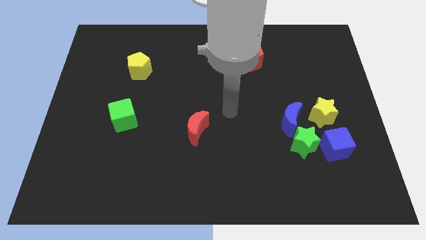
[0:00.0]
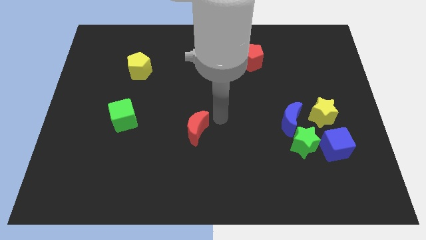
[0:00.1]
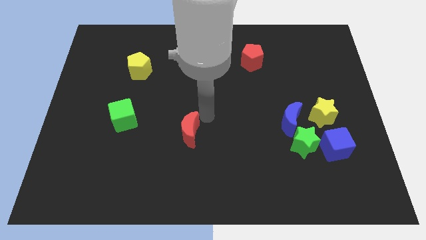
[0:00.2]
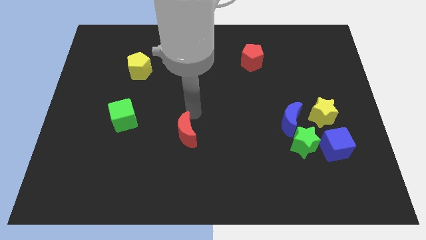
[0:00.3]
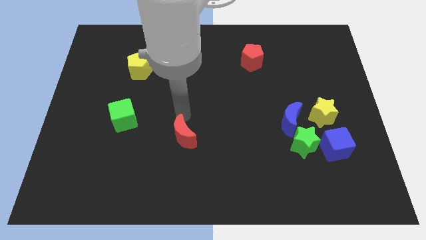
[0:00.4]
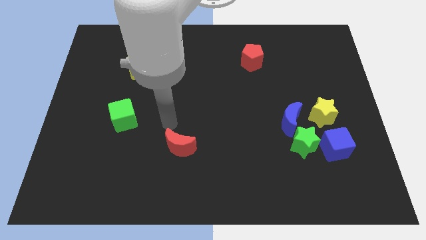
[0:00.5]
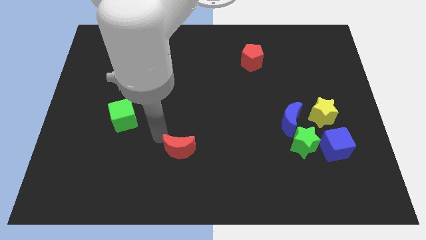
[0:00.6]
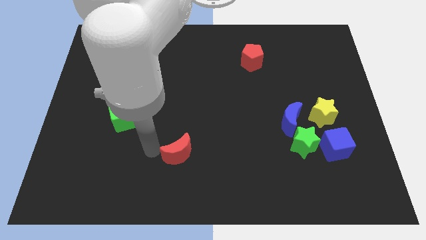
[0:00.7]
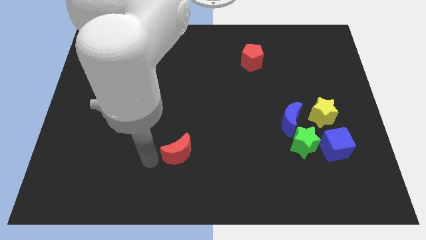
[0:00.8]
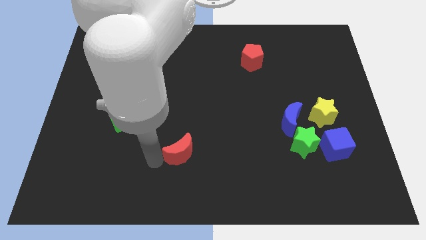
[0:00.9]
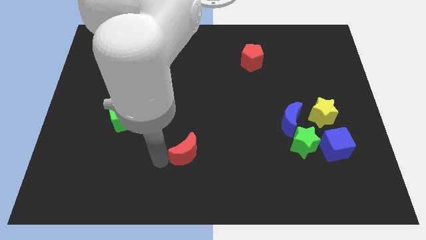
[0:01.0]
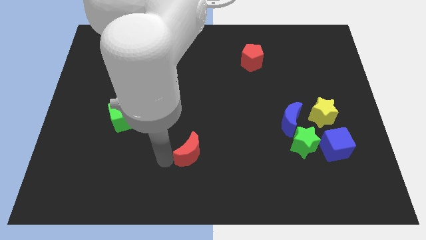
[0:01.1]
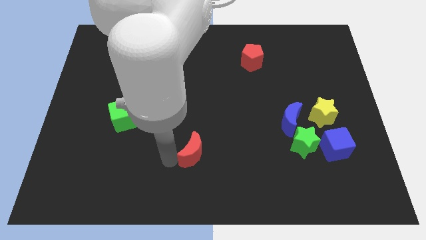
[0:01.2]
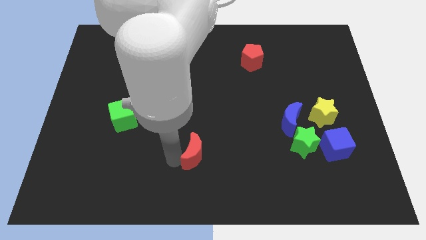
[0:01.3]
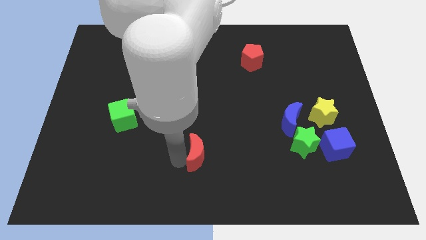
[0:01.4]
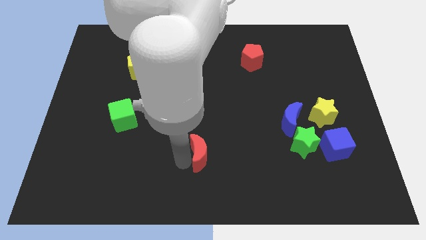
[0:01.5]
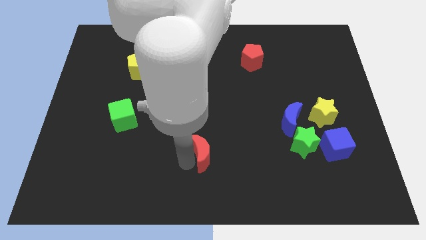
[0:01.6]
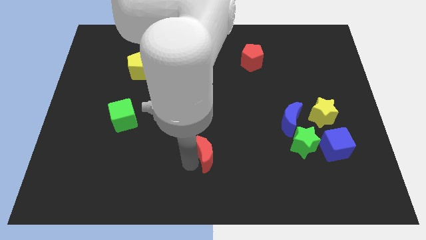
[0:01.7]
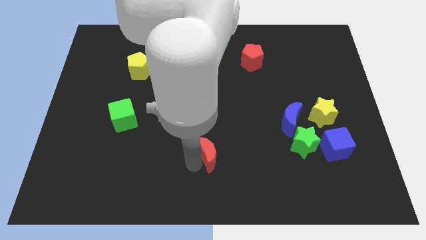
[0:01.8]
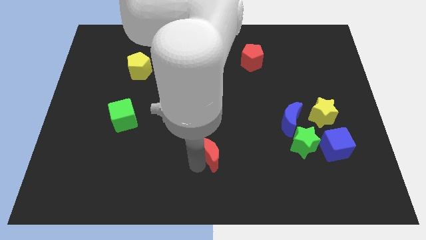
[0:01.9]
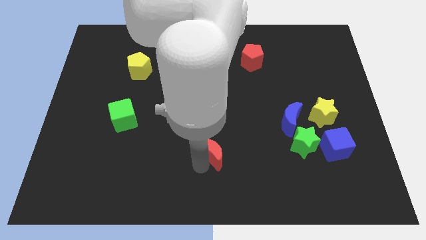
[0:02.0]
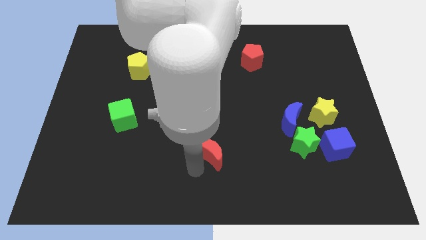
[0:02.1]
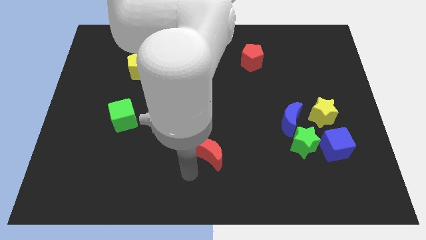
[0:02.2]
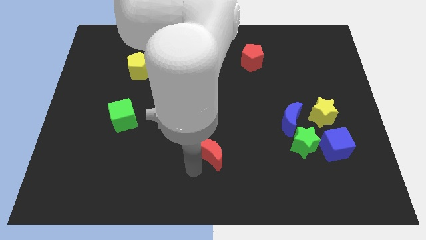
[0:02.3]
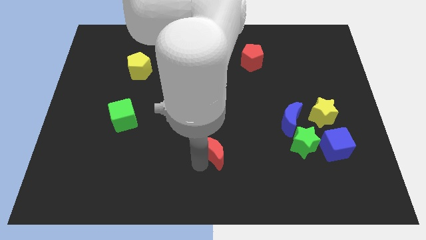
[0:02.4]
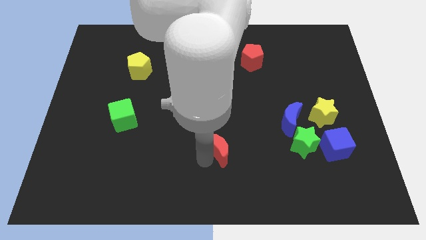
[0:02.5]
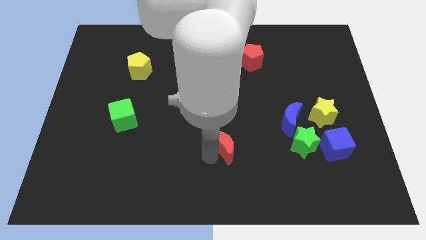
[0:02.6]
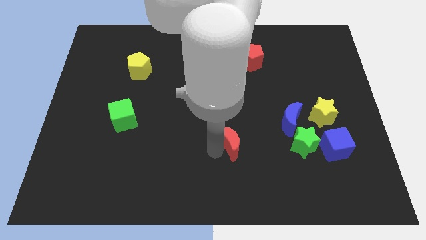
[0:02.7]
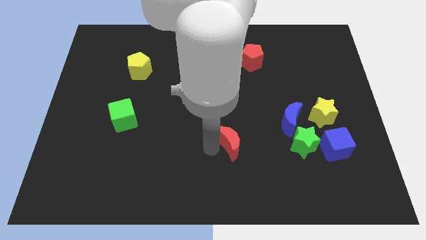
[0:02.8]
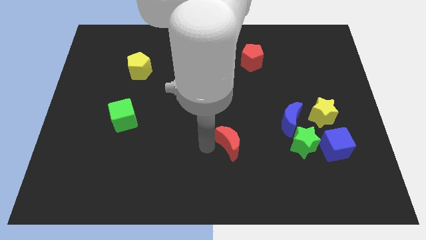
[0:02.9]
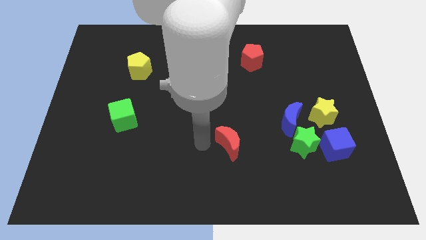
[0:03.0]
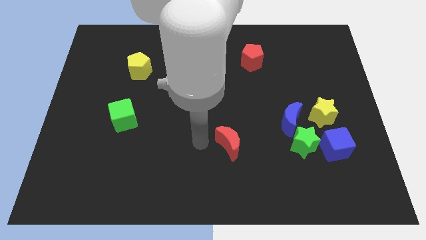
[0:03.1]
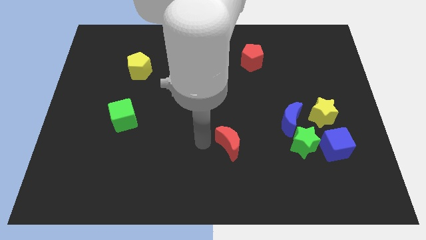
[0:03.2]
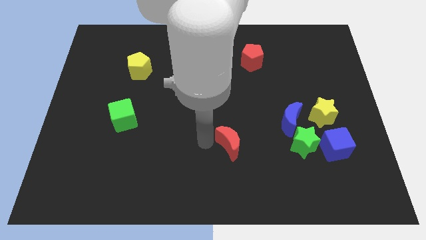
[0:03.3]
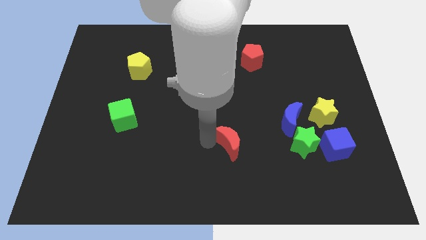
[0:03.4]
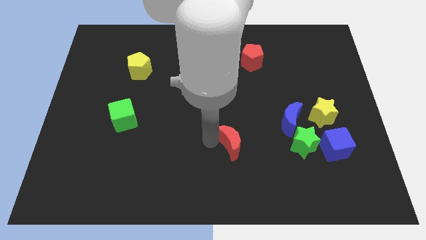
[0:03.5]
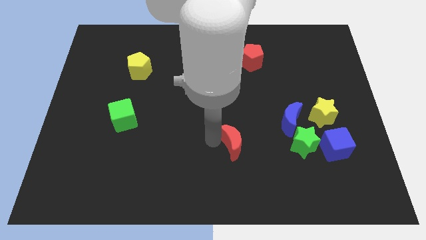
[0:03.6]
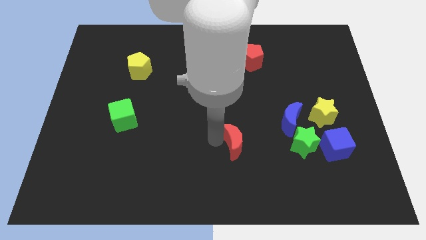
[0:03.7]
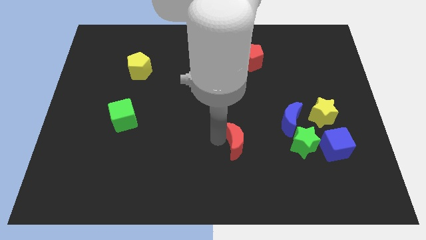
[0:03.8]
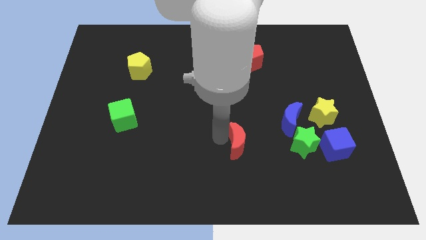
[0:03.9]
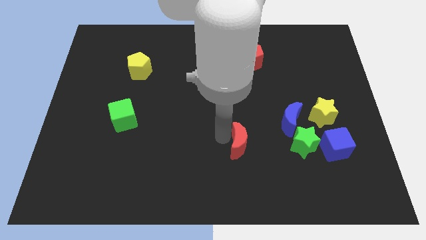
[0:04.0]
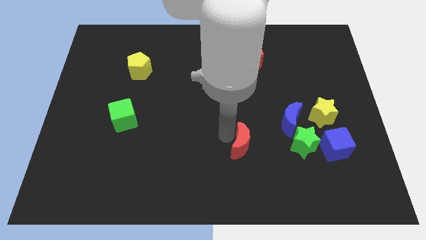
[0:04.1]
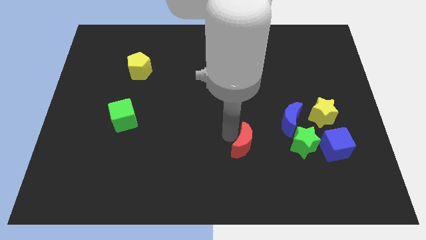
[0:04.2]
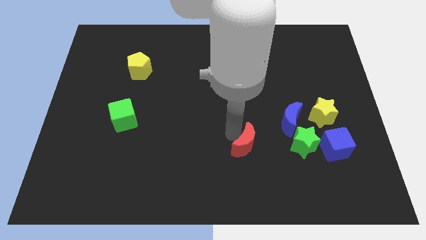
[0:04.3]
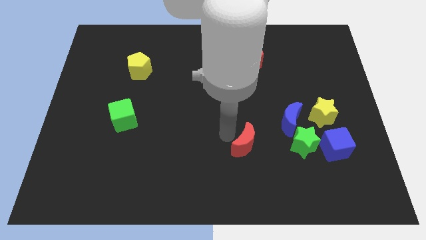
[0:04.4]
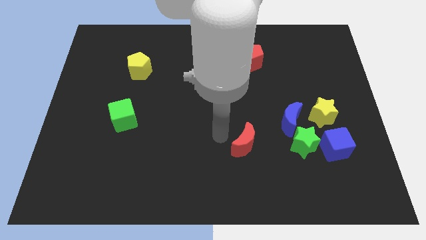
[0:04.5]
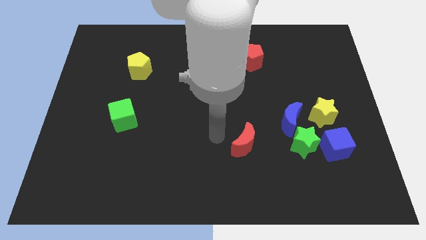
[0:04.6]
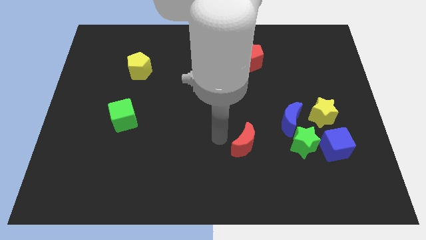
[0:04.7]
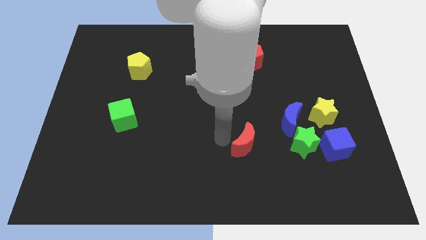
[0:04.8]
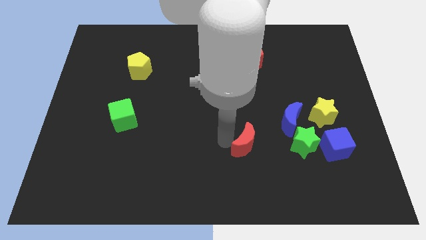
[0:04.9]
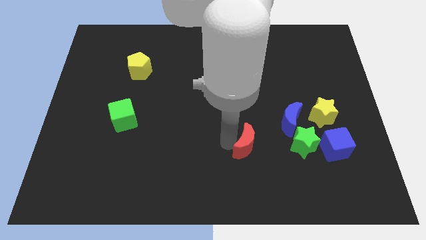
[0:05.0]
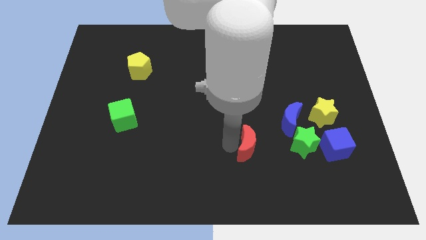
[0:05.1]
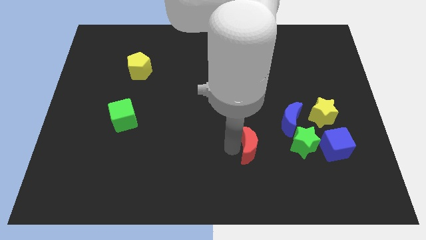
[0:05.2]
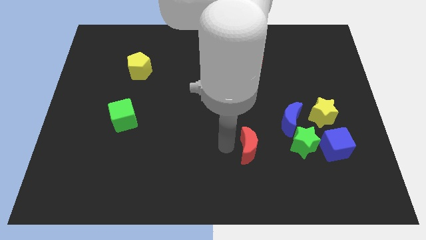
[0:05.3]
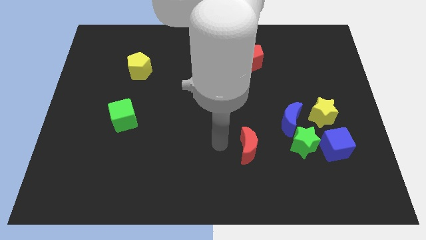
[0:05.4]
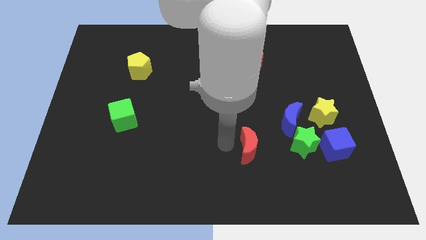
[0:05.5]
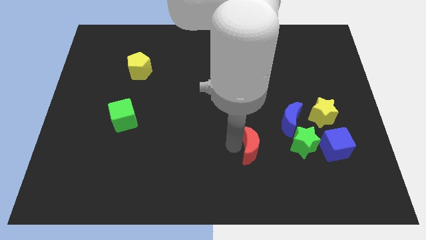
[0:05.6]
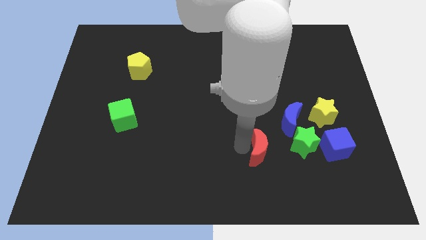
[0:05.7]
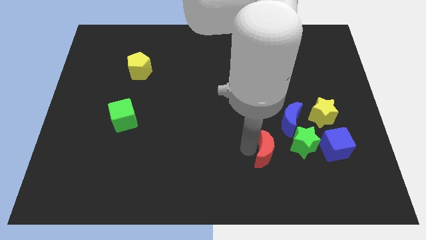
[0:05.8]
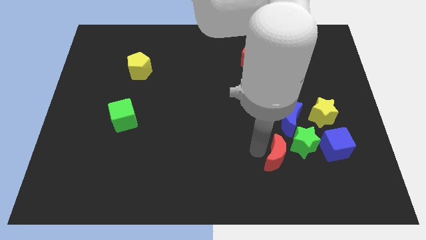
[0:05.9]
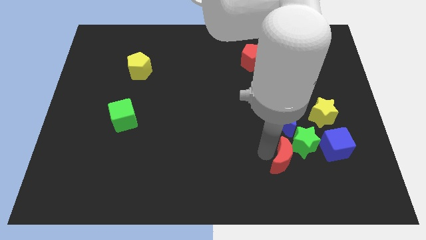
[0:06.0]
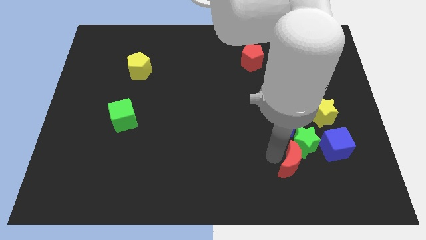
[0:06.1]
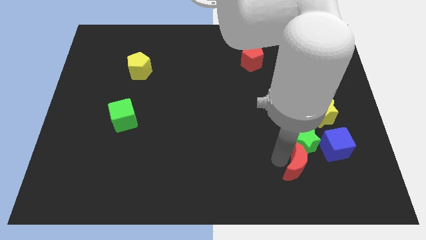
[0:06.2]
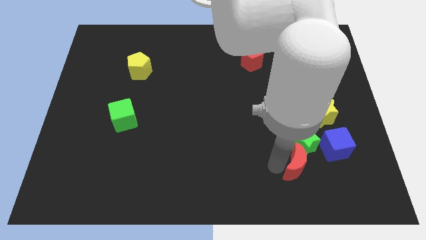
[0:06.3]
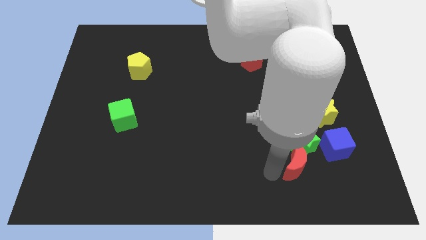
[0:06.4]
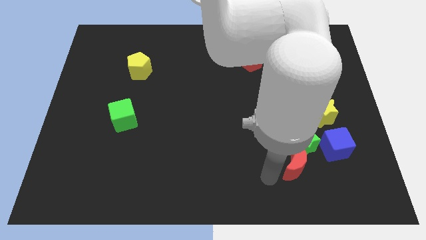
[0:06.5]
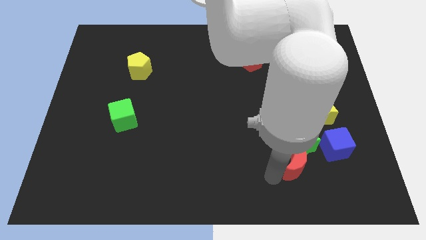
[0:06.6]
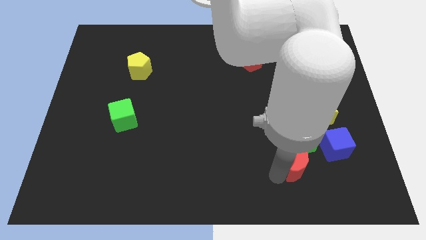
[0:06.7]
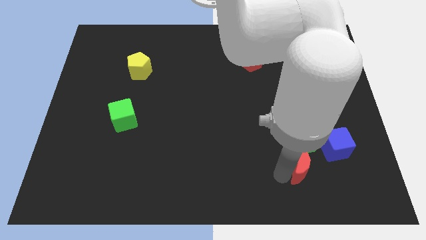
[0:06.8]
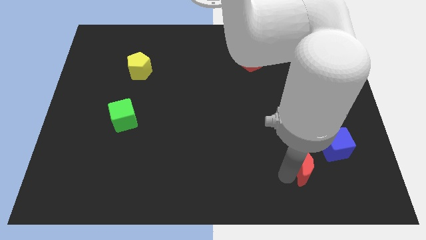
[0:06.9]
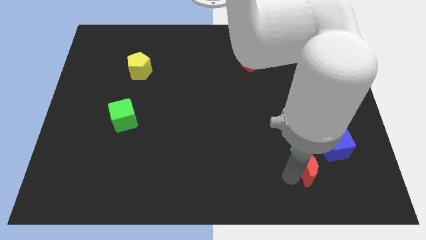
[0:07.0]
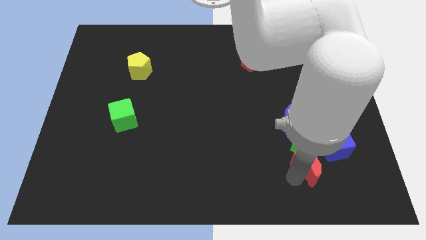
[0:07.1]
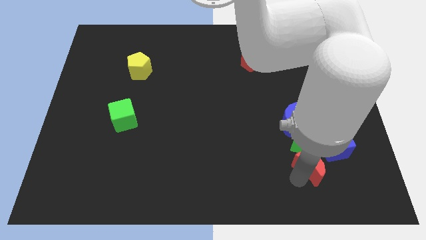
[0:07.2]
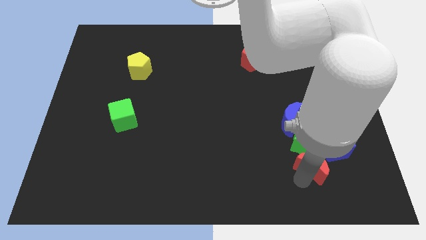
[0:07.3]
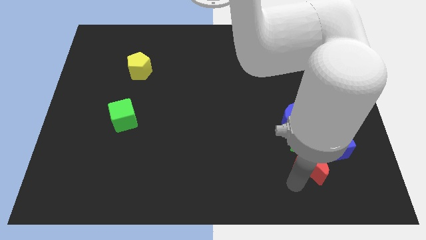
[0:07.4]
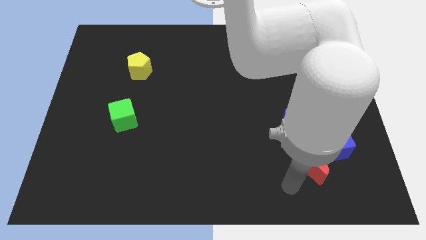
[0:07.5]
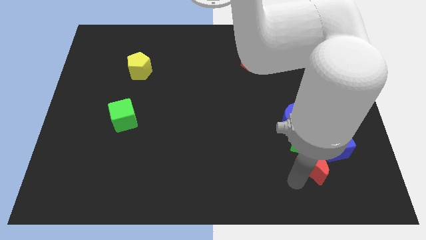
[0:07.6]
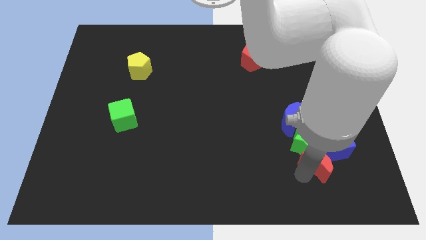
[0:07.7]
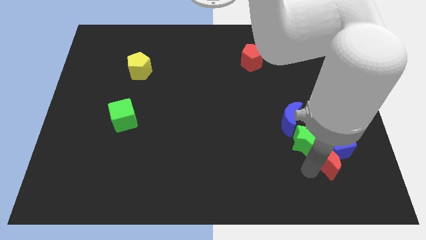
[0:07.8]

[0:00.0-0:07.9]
slide the red moon next to the blue cube
